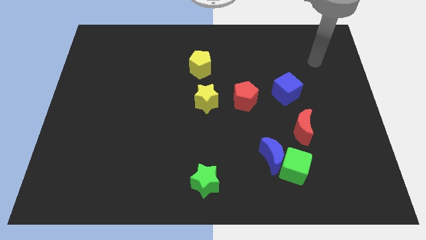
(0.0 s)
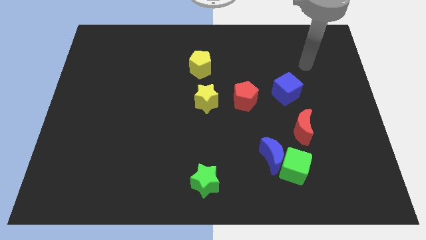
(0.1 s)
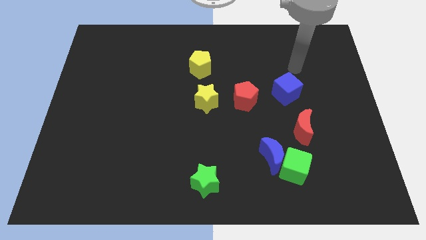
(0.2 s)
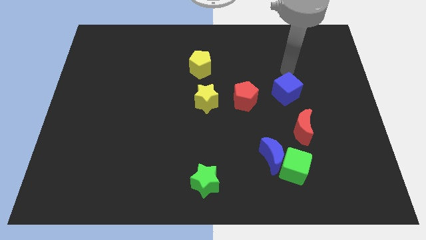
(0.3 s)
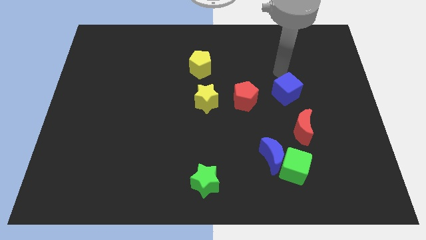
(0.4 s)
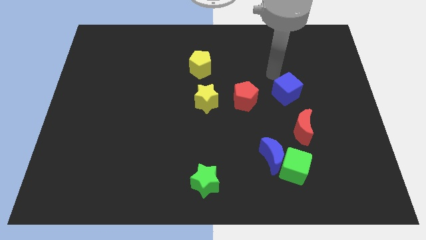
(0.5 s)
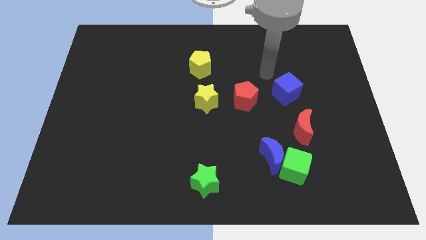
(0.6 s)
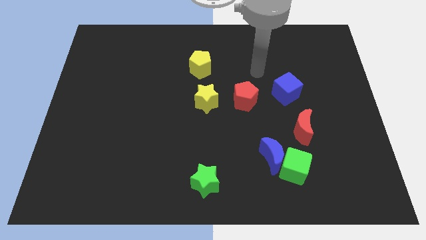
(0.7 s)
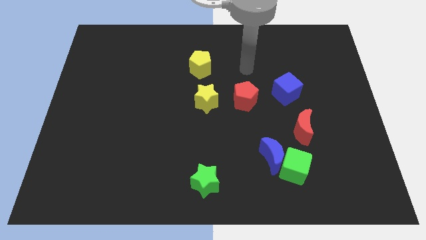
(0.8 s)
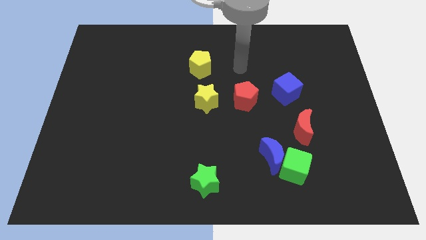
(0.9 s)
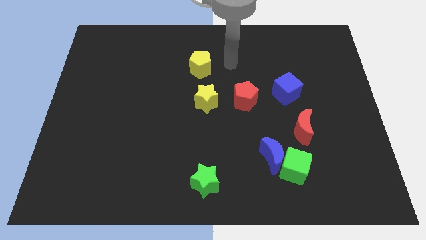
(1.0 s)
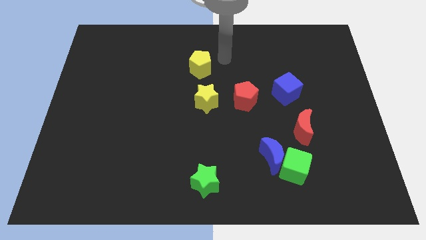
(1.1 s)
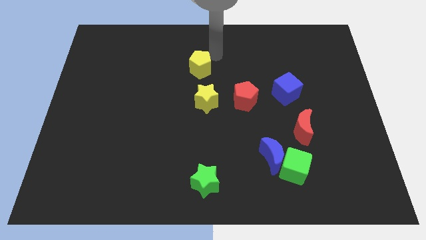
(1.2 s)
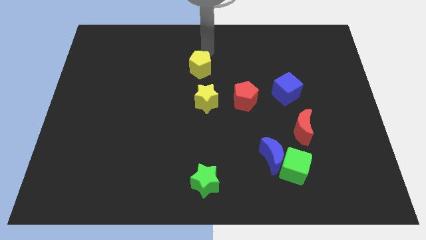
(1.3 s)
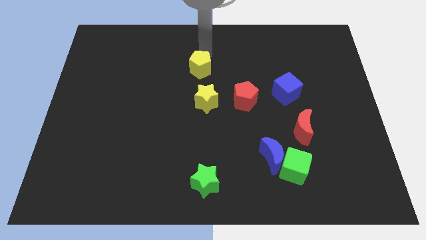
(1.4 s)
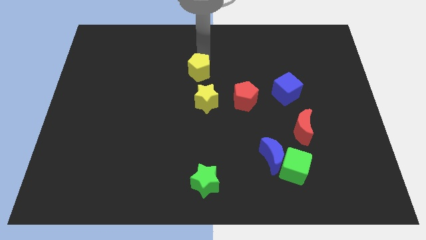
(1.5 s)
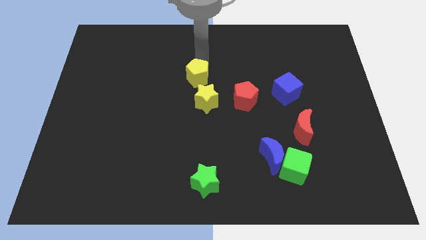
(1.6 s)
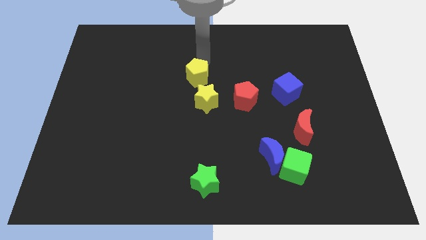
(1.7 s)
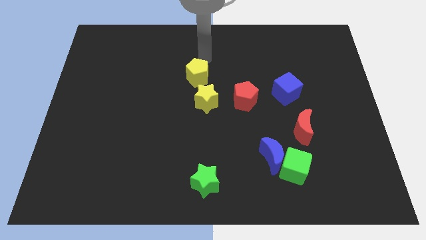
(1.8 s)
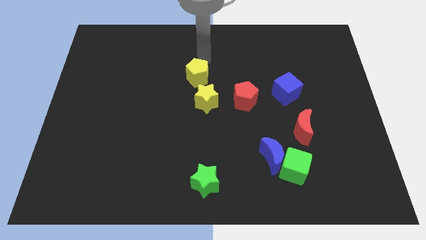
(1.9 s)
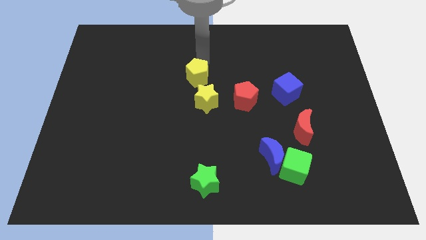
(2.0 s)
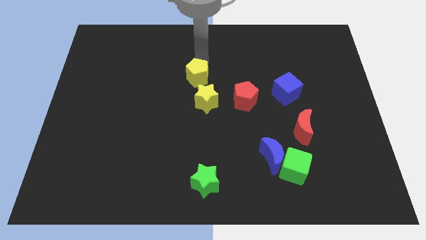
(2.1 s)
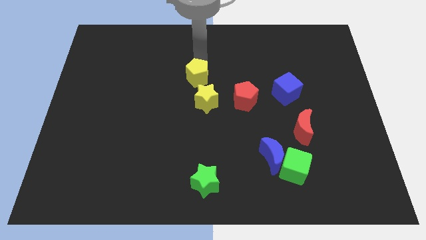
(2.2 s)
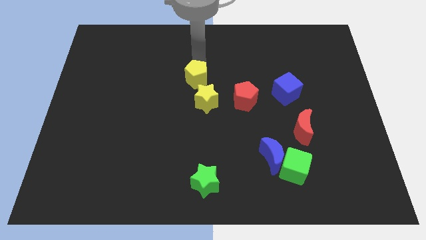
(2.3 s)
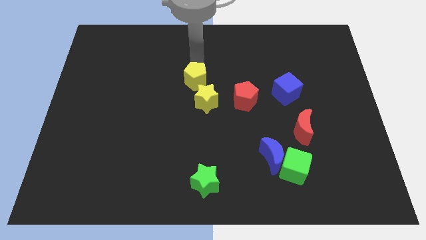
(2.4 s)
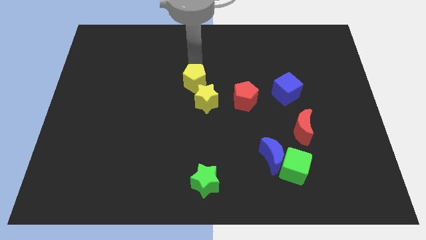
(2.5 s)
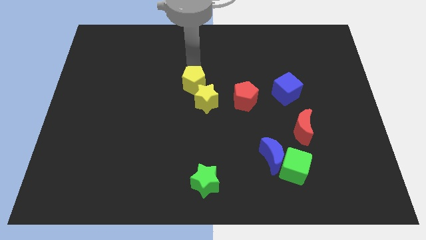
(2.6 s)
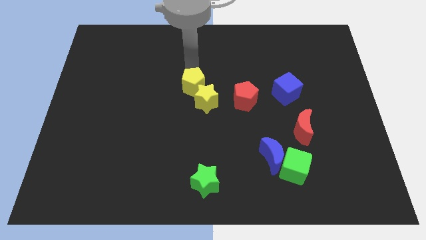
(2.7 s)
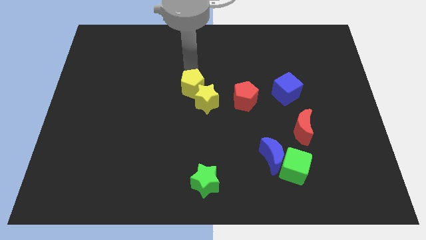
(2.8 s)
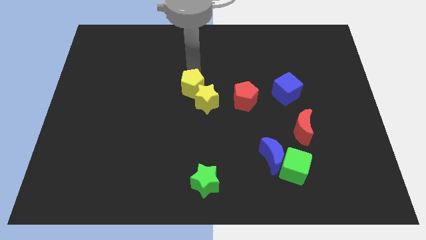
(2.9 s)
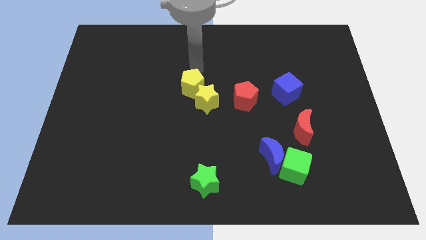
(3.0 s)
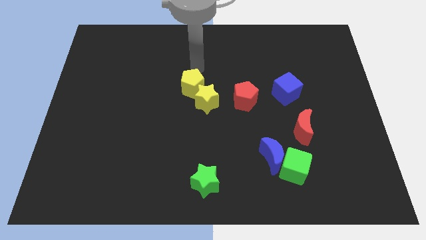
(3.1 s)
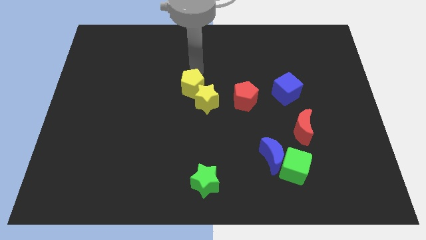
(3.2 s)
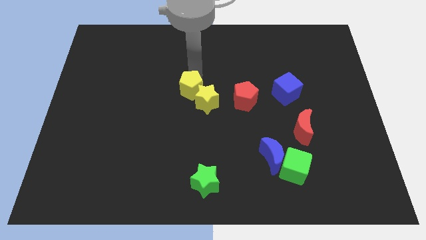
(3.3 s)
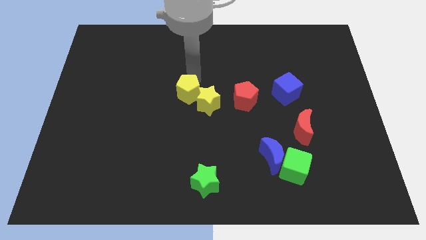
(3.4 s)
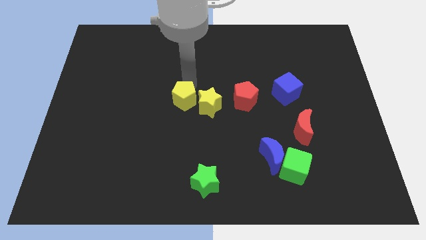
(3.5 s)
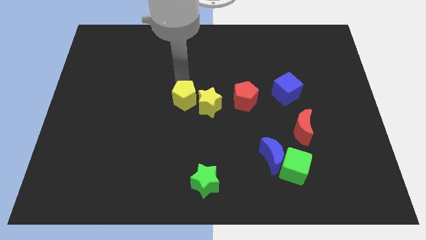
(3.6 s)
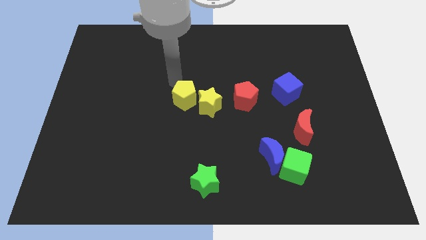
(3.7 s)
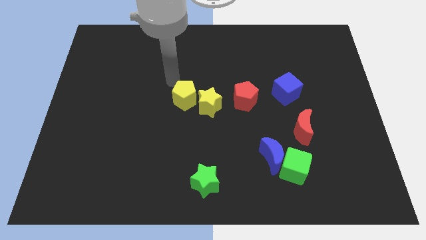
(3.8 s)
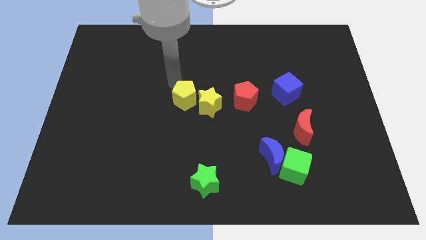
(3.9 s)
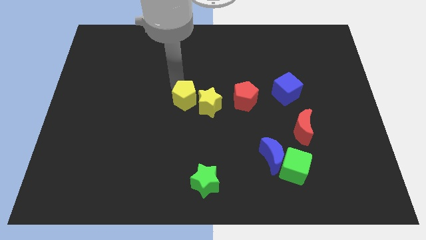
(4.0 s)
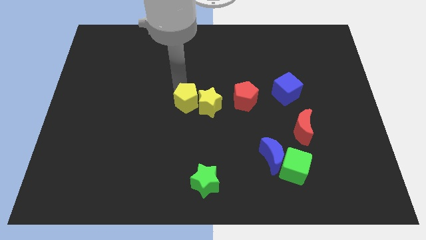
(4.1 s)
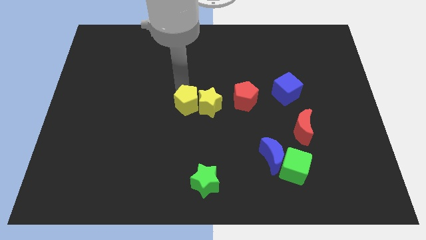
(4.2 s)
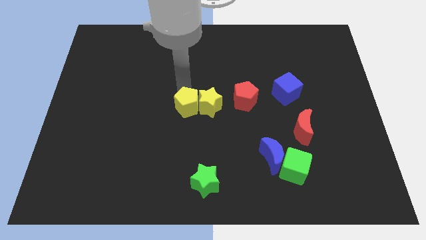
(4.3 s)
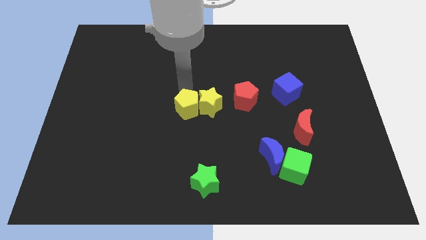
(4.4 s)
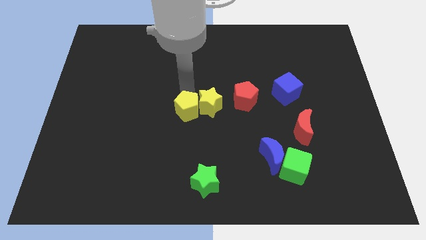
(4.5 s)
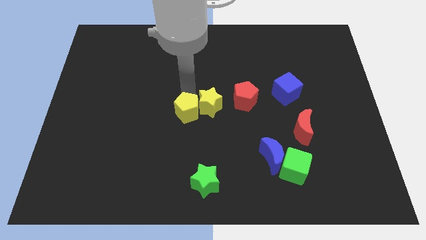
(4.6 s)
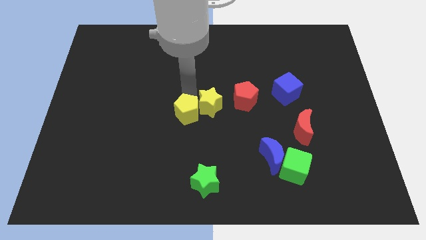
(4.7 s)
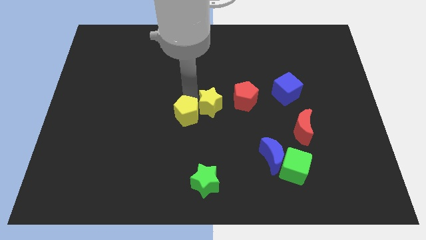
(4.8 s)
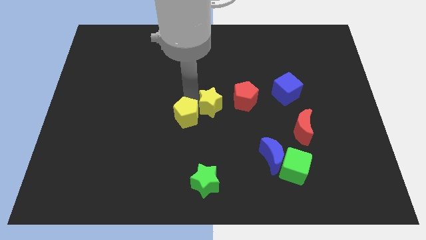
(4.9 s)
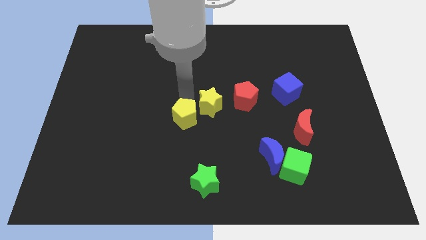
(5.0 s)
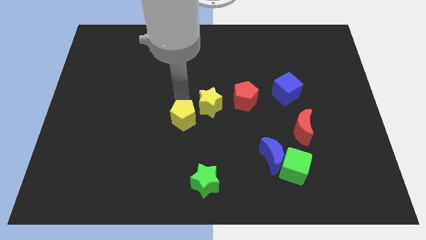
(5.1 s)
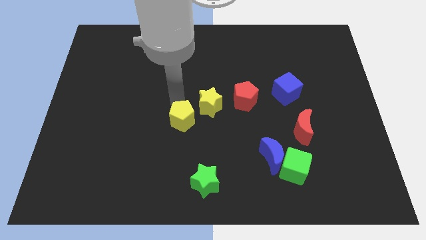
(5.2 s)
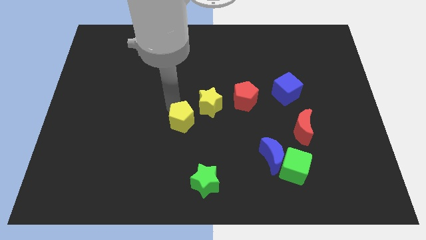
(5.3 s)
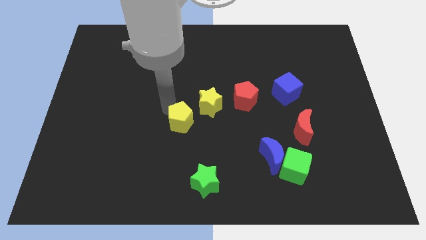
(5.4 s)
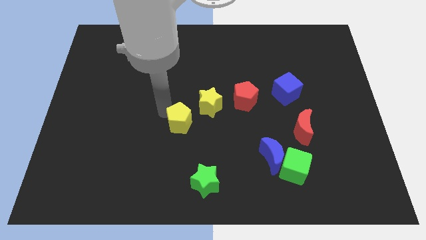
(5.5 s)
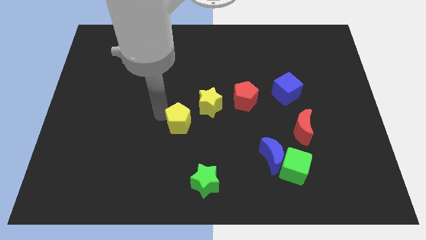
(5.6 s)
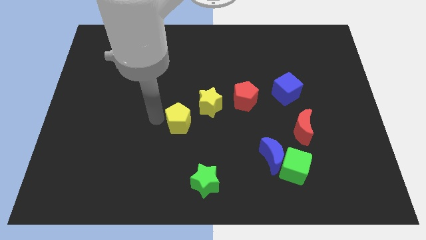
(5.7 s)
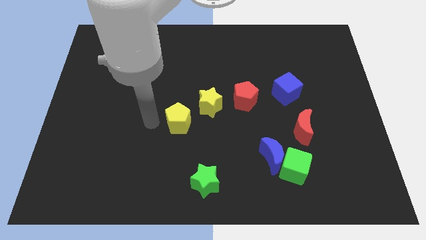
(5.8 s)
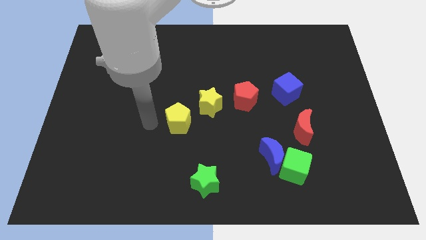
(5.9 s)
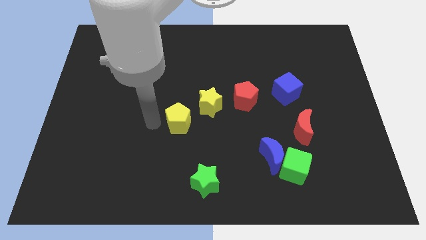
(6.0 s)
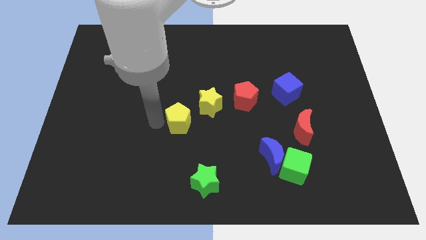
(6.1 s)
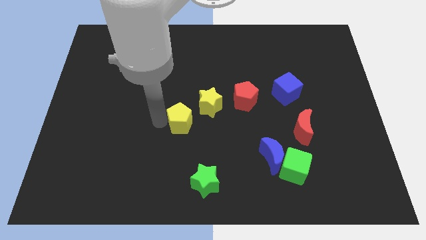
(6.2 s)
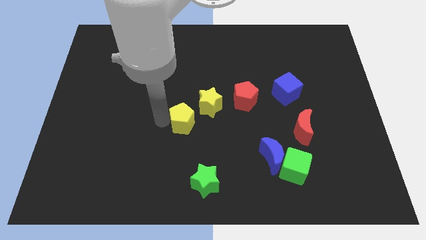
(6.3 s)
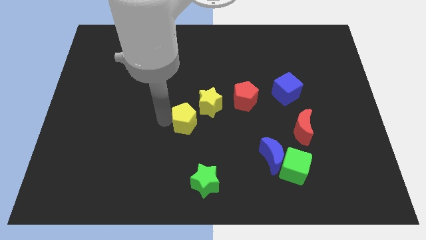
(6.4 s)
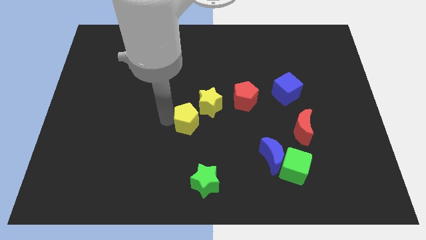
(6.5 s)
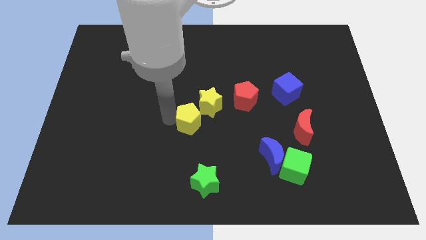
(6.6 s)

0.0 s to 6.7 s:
move the yellow pentagon to the bottom side of the yellow star

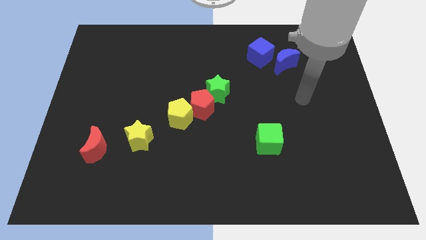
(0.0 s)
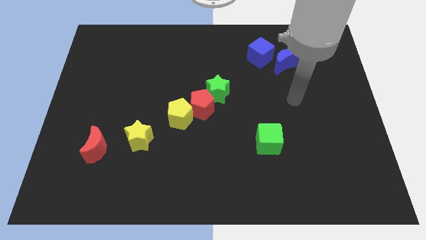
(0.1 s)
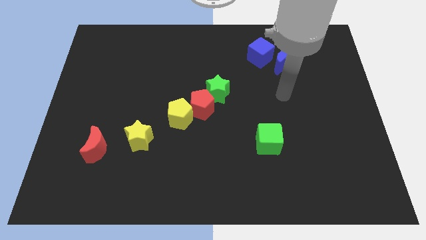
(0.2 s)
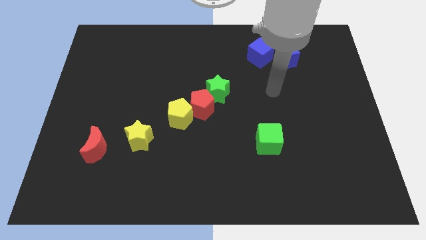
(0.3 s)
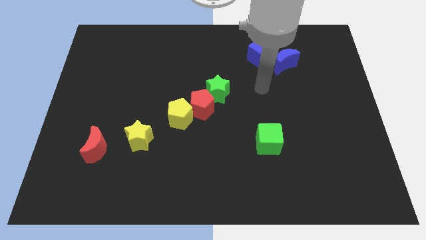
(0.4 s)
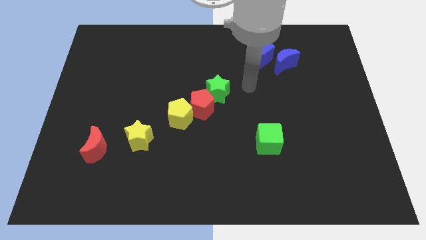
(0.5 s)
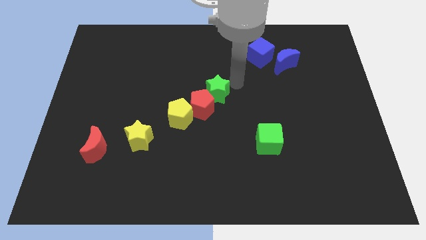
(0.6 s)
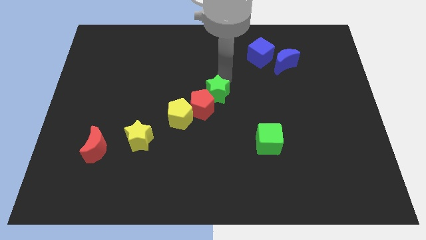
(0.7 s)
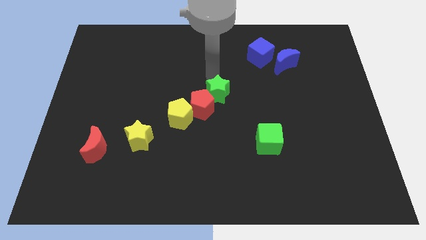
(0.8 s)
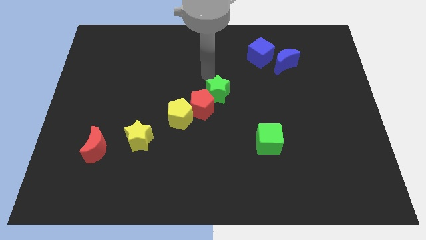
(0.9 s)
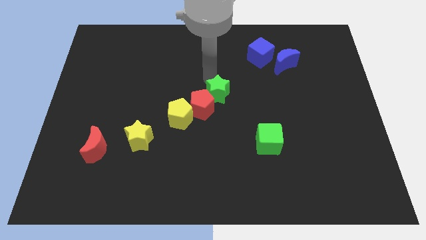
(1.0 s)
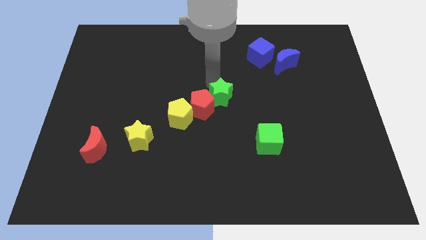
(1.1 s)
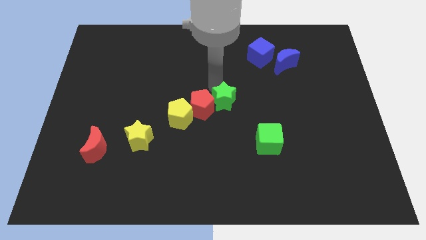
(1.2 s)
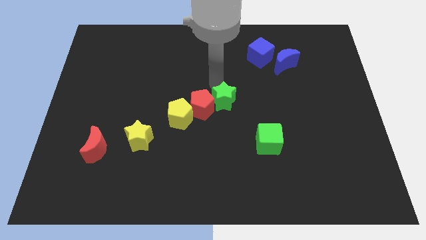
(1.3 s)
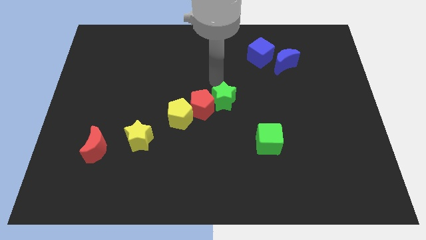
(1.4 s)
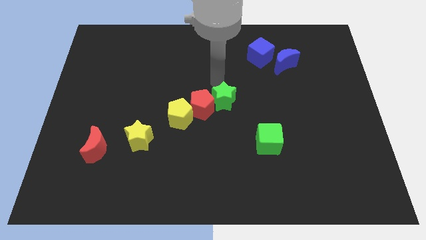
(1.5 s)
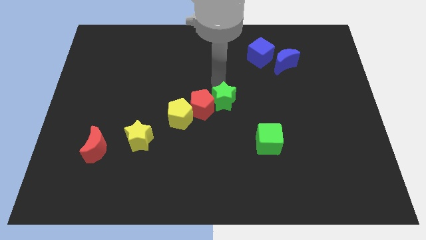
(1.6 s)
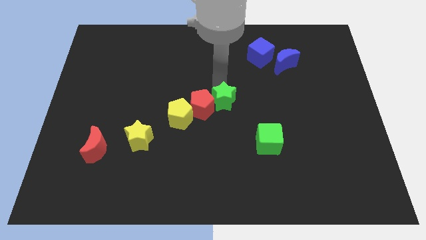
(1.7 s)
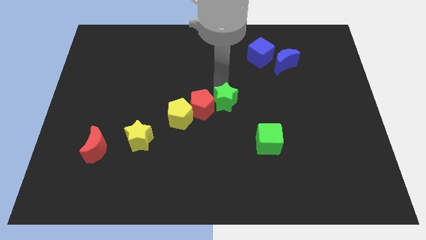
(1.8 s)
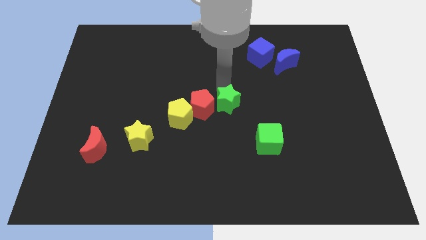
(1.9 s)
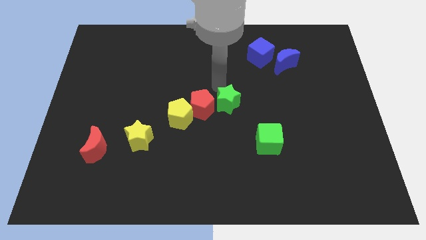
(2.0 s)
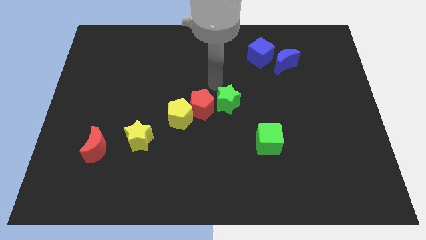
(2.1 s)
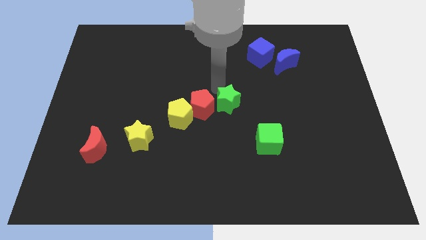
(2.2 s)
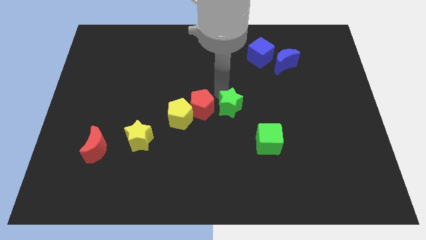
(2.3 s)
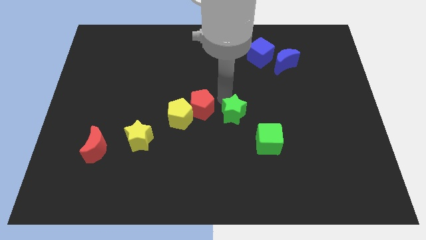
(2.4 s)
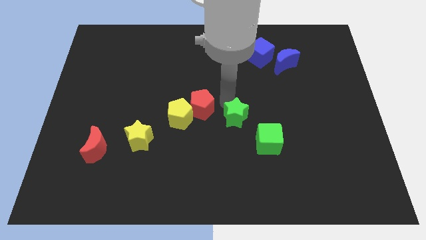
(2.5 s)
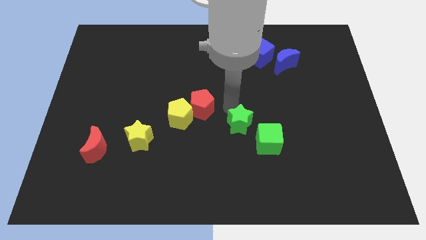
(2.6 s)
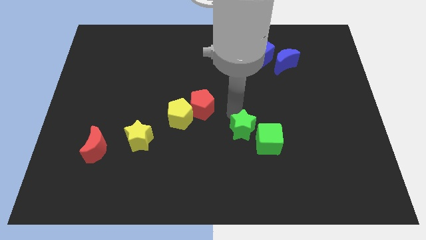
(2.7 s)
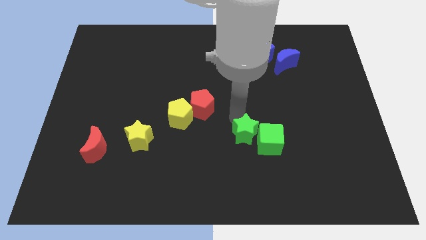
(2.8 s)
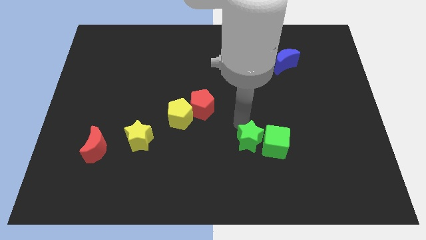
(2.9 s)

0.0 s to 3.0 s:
slide the green star to the bottom left of the green cube
